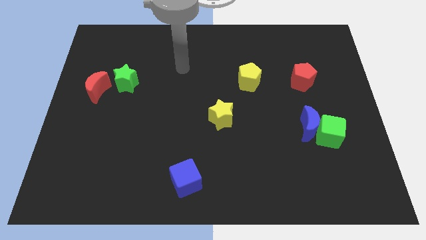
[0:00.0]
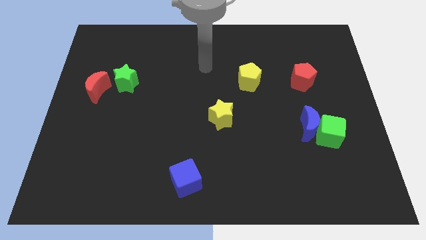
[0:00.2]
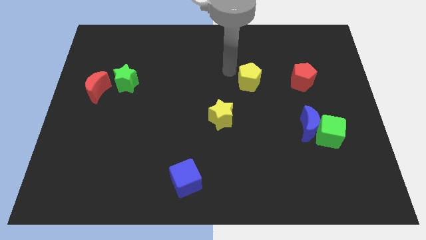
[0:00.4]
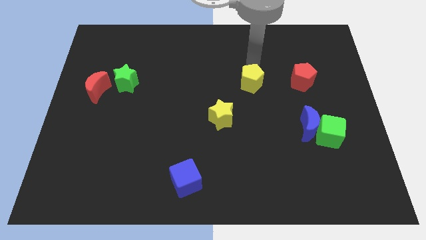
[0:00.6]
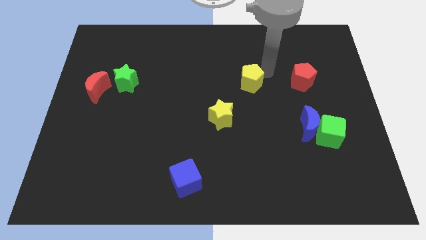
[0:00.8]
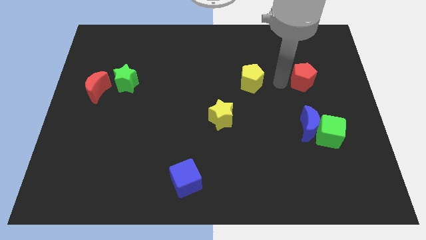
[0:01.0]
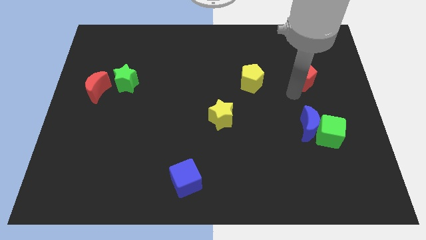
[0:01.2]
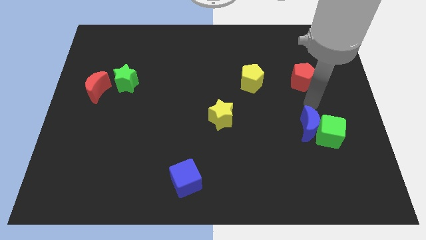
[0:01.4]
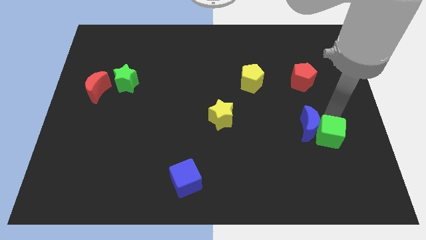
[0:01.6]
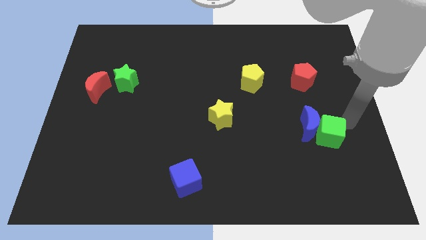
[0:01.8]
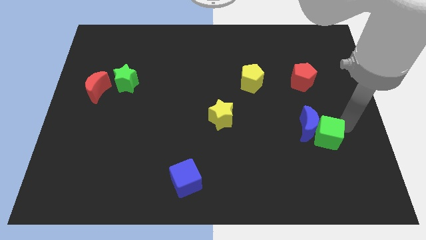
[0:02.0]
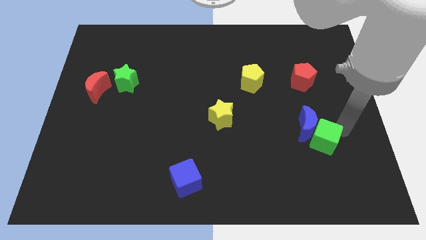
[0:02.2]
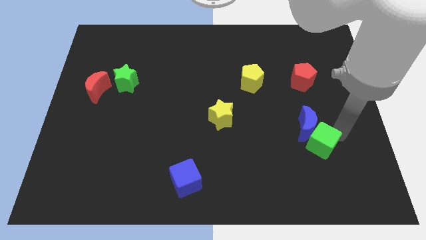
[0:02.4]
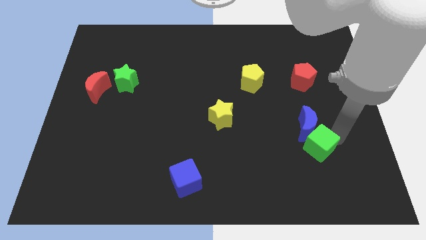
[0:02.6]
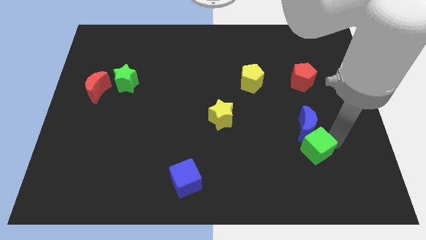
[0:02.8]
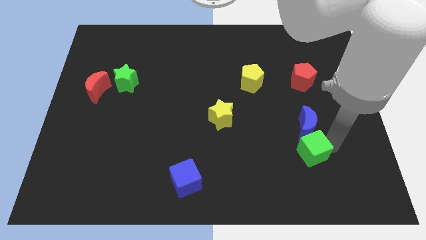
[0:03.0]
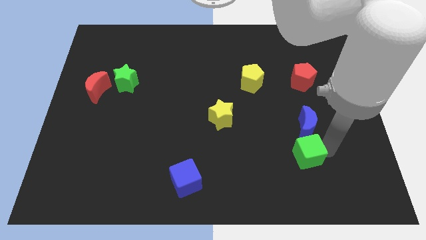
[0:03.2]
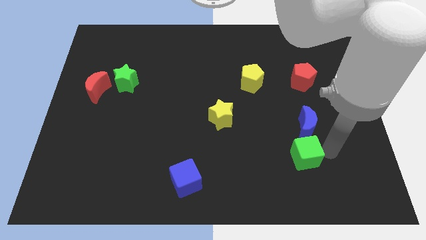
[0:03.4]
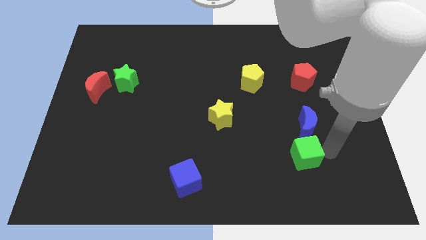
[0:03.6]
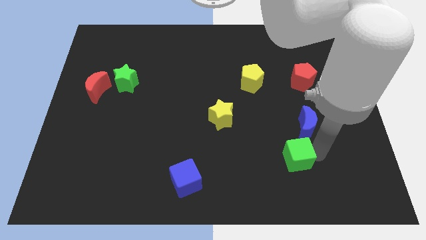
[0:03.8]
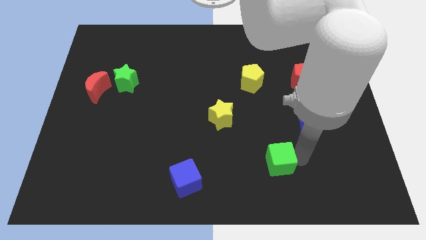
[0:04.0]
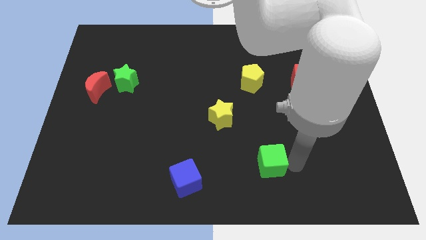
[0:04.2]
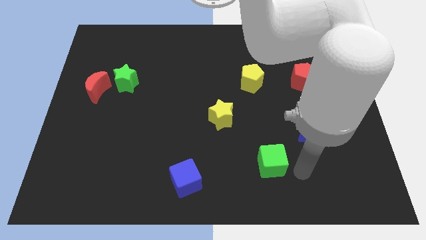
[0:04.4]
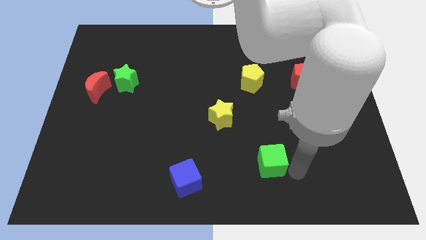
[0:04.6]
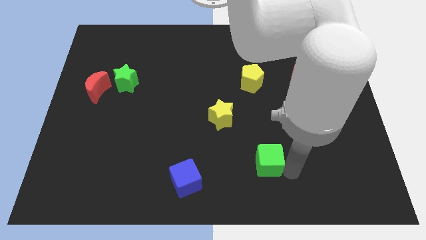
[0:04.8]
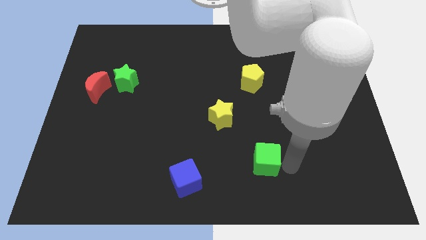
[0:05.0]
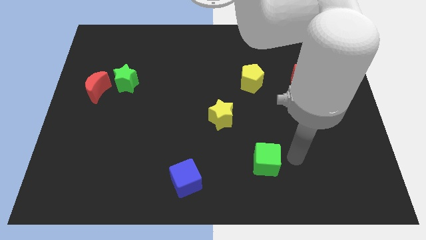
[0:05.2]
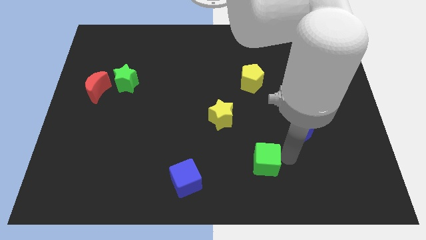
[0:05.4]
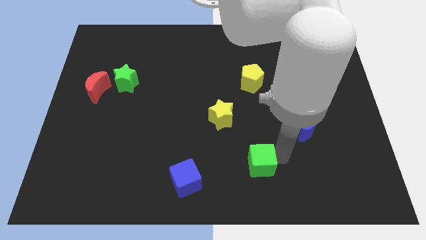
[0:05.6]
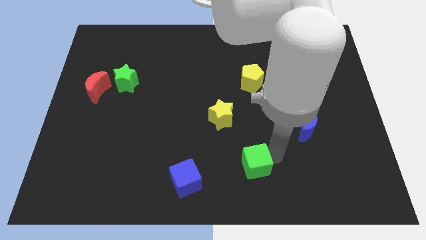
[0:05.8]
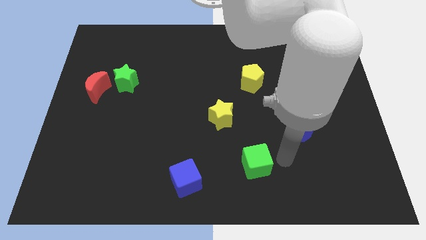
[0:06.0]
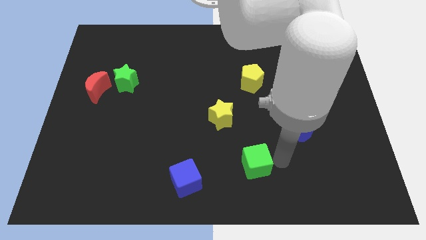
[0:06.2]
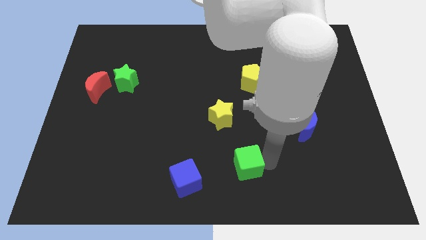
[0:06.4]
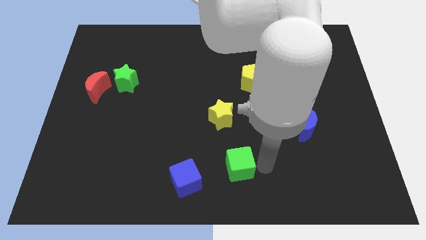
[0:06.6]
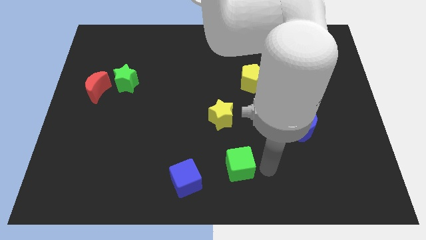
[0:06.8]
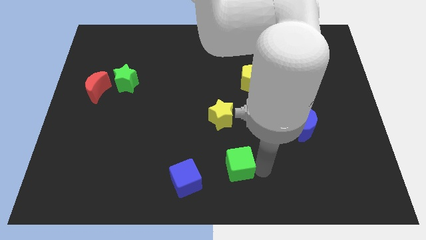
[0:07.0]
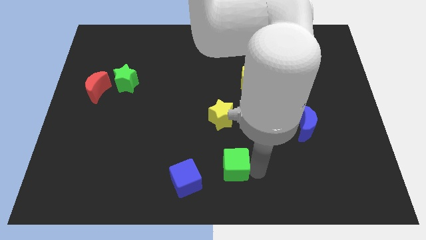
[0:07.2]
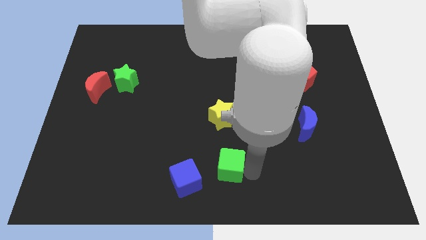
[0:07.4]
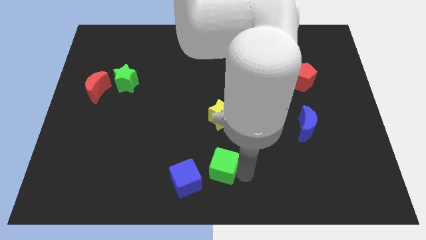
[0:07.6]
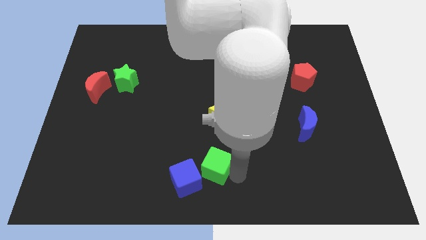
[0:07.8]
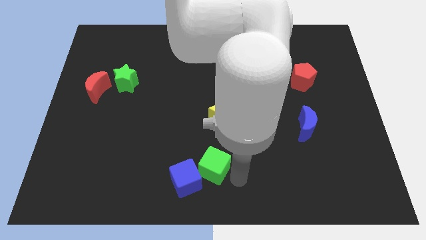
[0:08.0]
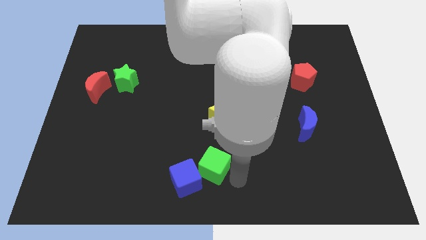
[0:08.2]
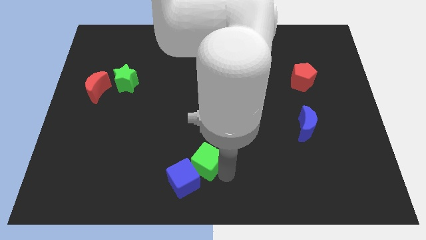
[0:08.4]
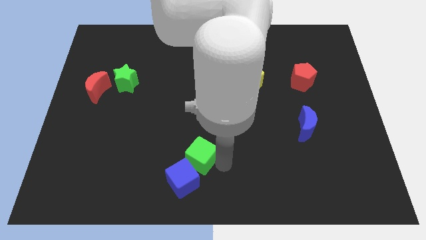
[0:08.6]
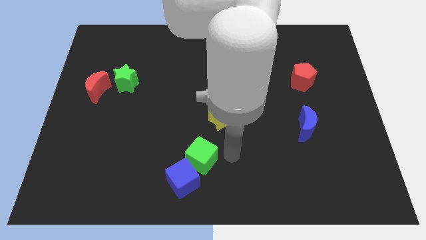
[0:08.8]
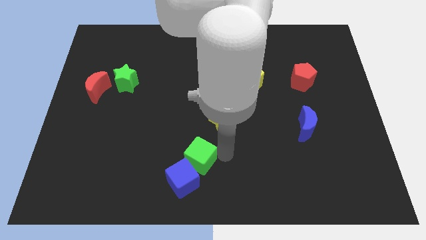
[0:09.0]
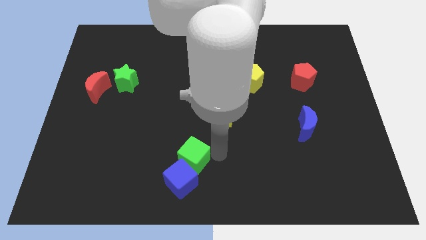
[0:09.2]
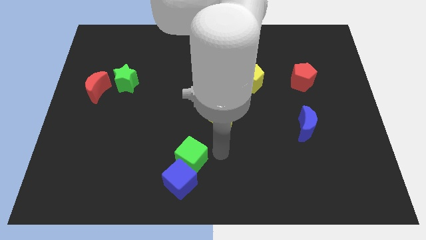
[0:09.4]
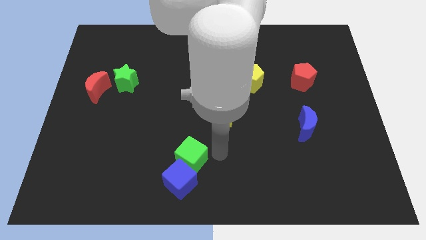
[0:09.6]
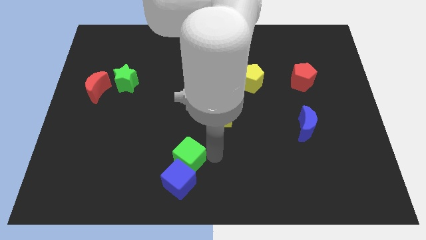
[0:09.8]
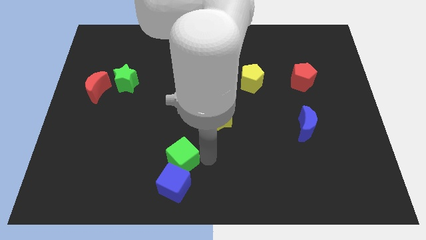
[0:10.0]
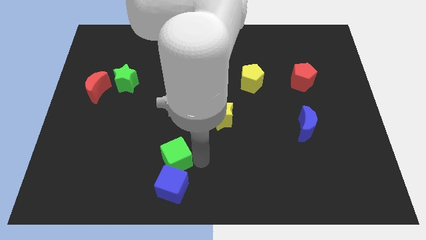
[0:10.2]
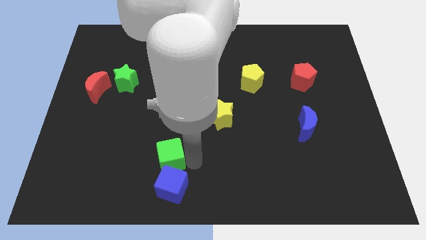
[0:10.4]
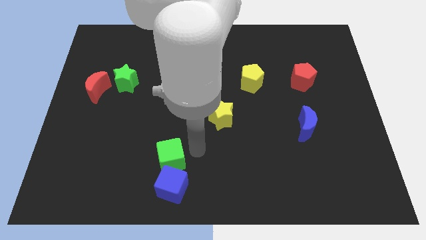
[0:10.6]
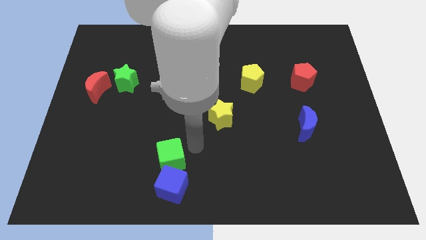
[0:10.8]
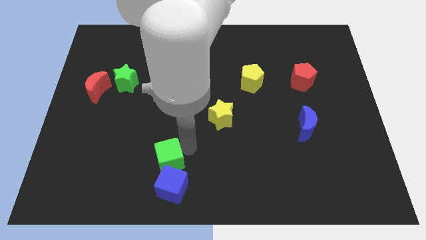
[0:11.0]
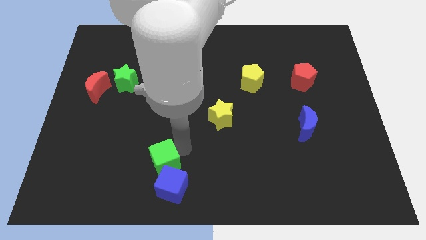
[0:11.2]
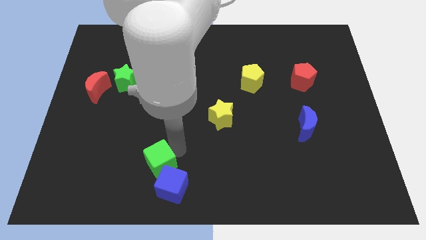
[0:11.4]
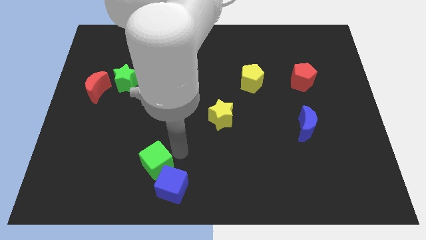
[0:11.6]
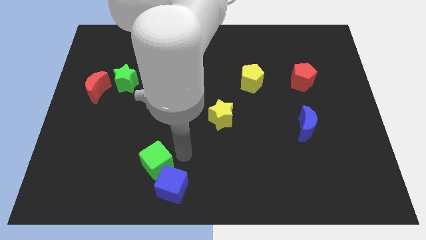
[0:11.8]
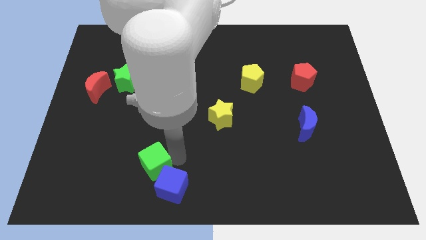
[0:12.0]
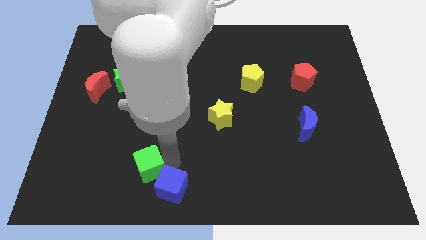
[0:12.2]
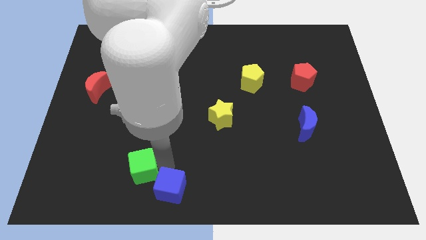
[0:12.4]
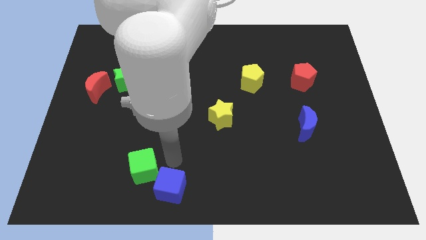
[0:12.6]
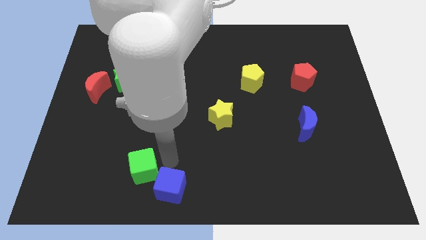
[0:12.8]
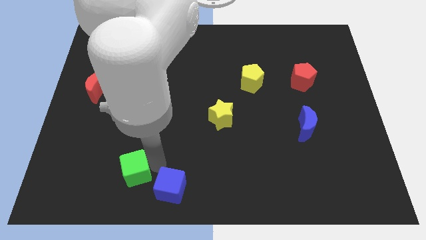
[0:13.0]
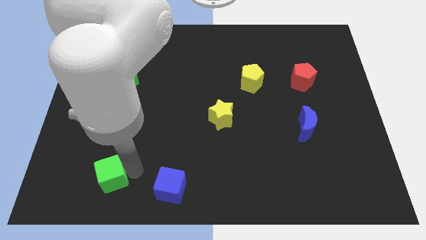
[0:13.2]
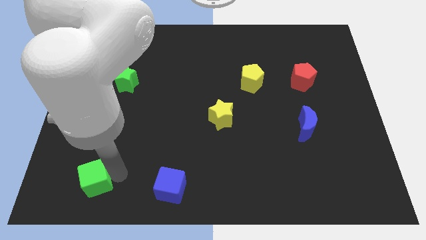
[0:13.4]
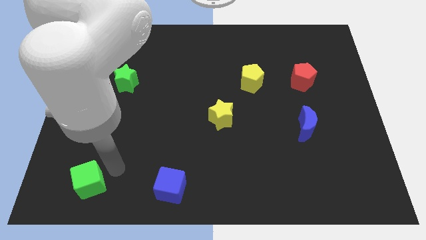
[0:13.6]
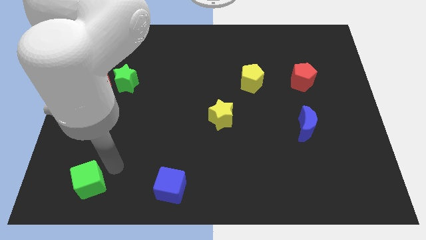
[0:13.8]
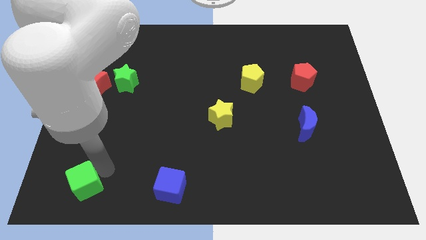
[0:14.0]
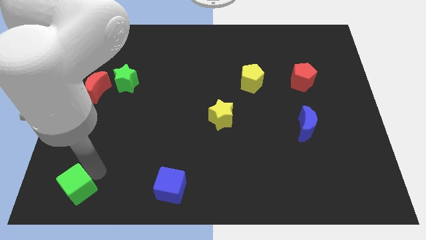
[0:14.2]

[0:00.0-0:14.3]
move the green cube to the lower left corner
